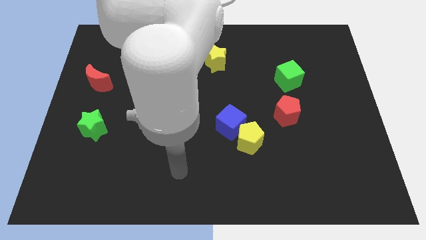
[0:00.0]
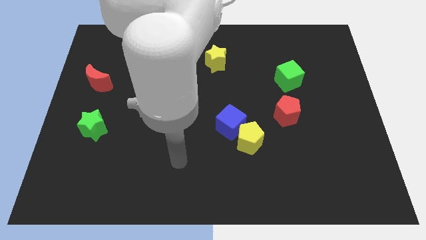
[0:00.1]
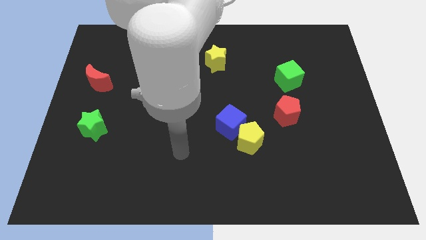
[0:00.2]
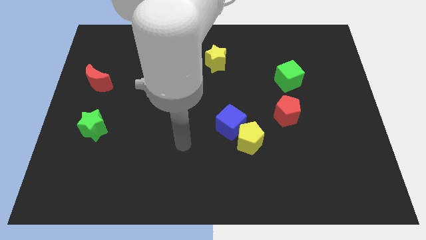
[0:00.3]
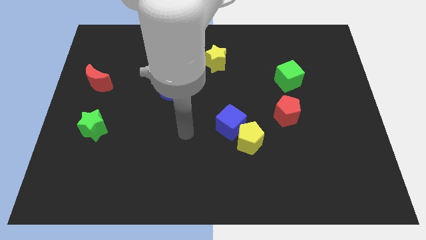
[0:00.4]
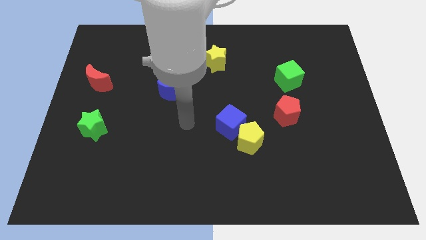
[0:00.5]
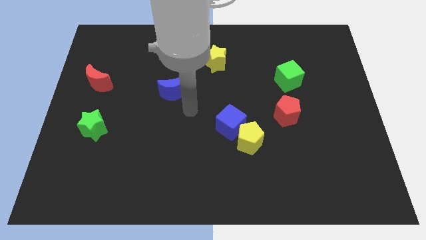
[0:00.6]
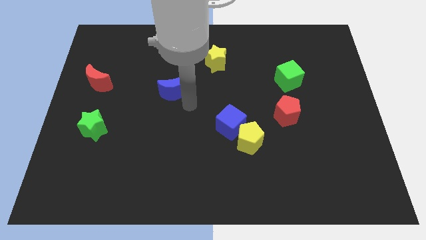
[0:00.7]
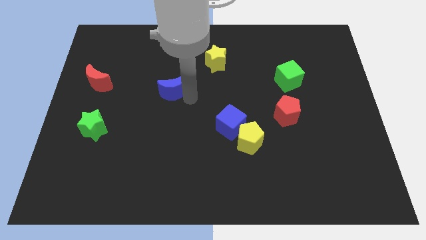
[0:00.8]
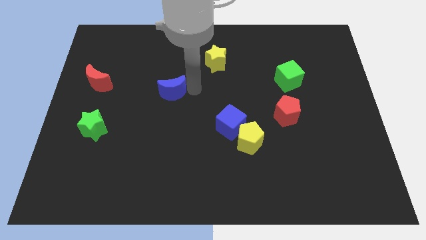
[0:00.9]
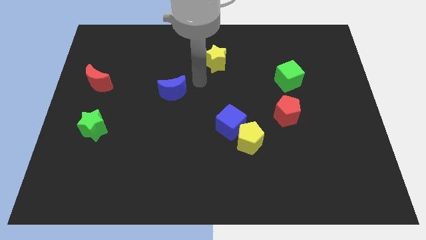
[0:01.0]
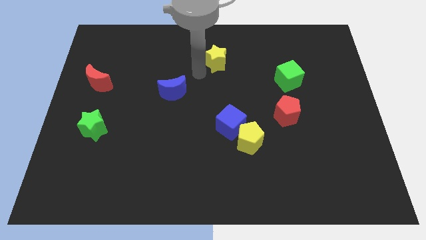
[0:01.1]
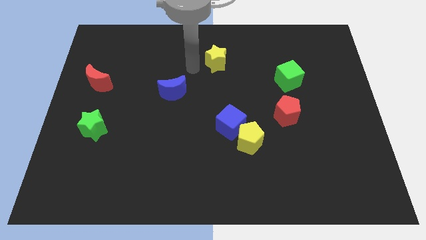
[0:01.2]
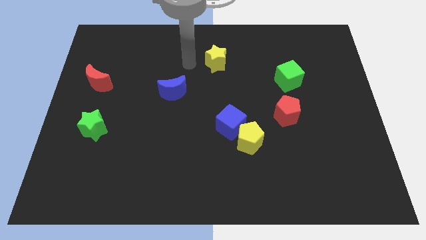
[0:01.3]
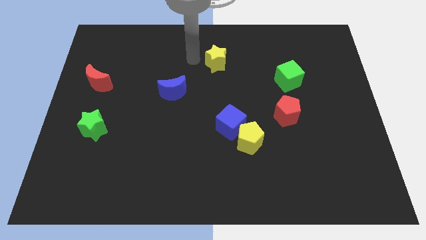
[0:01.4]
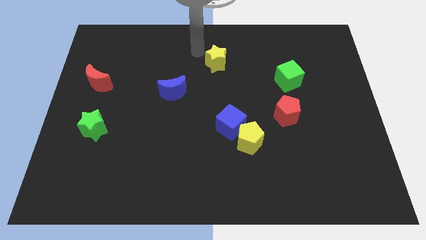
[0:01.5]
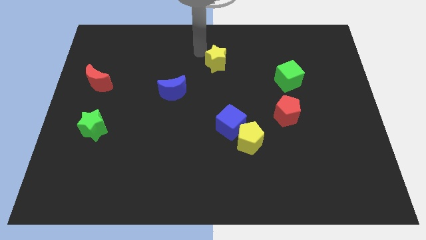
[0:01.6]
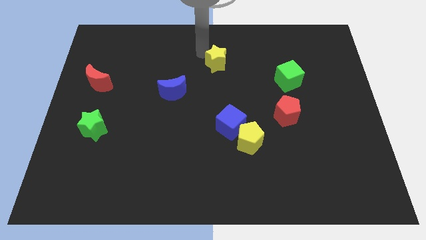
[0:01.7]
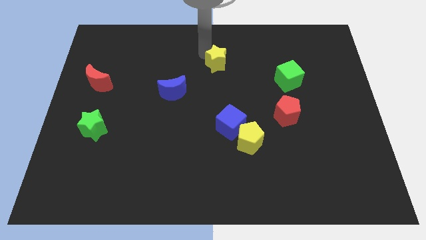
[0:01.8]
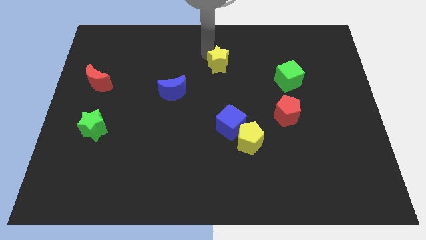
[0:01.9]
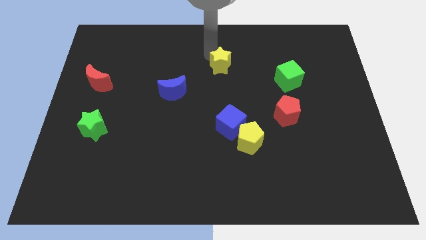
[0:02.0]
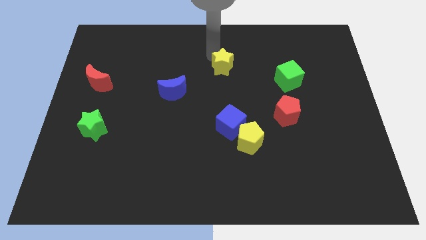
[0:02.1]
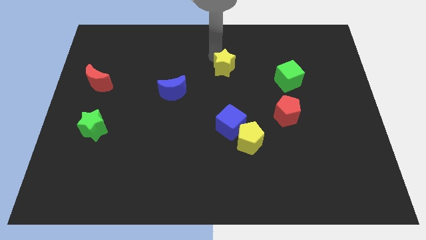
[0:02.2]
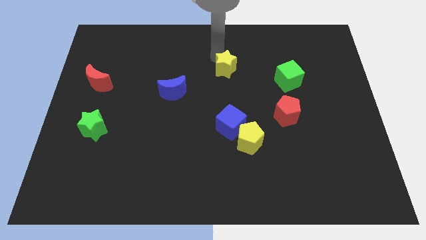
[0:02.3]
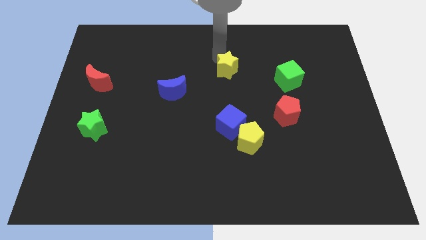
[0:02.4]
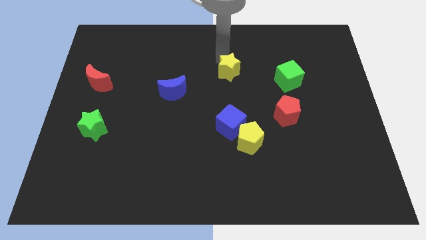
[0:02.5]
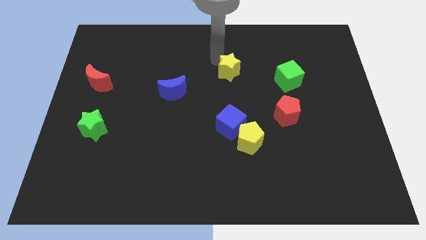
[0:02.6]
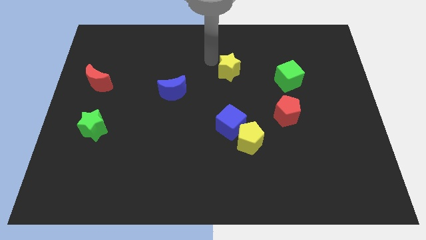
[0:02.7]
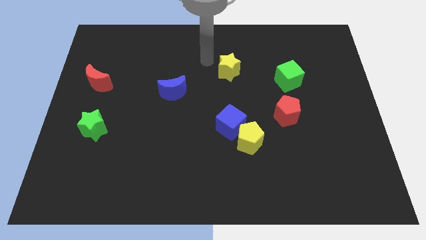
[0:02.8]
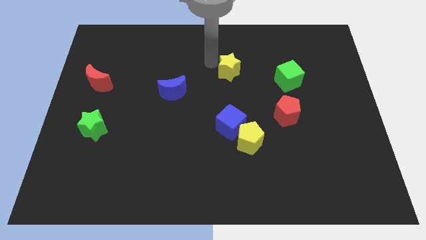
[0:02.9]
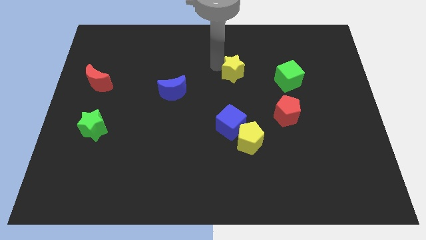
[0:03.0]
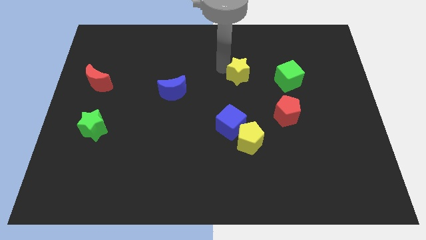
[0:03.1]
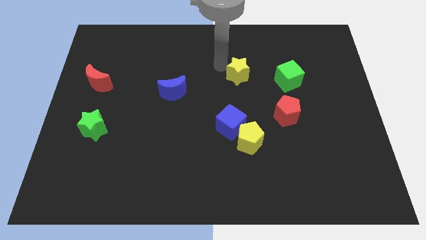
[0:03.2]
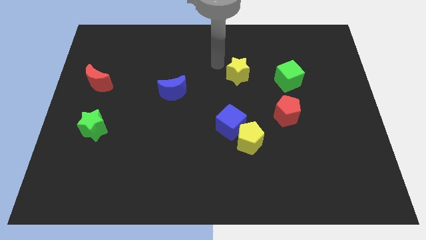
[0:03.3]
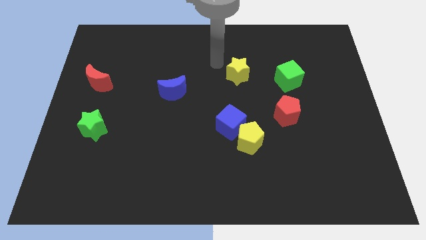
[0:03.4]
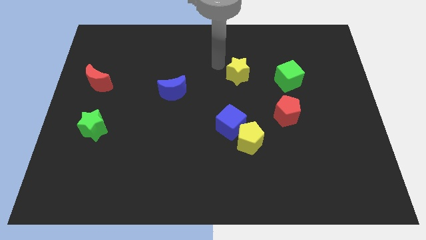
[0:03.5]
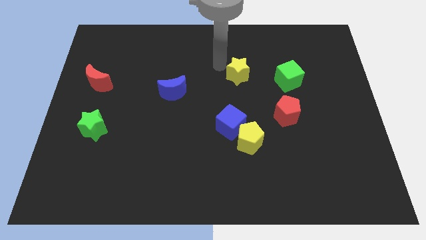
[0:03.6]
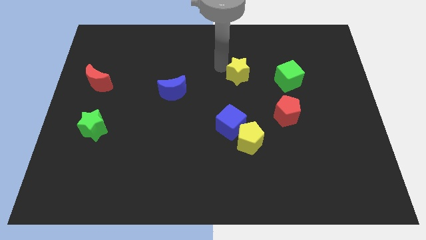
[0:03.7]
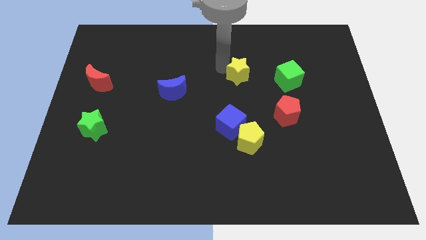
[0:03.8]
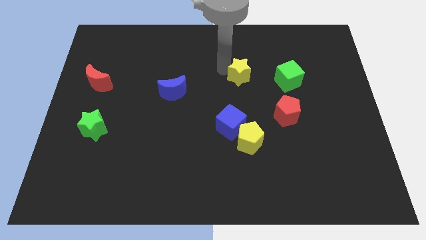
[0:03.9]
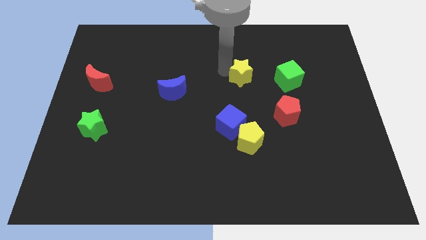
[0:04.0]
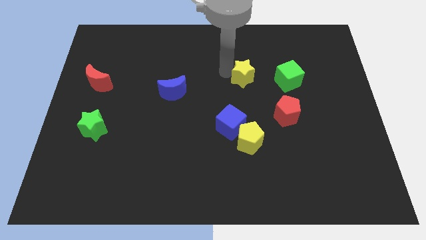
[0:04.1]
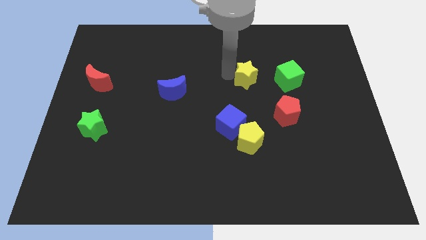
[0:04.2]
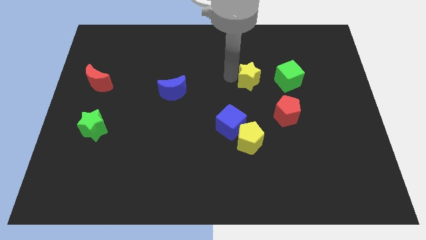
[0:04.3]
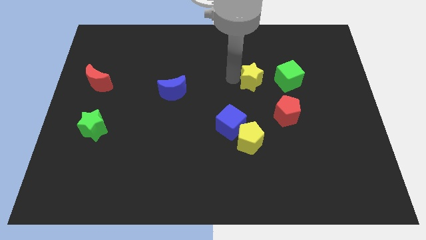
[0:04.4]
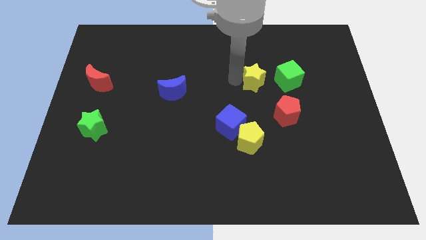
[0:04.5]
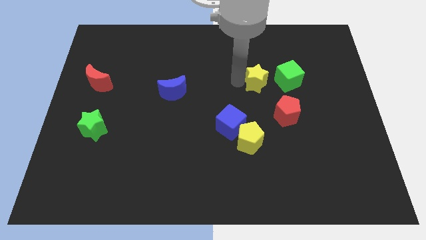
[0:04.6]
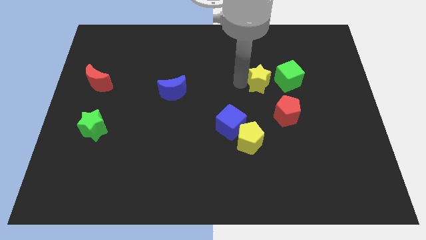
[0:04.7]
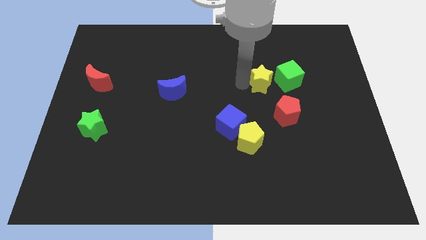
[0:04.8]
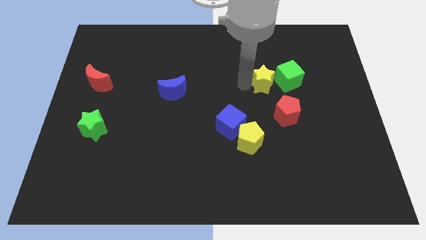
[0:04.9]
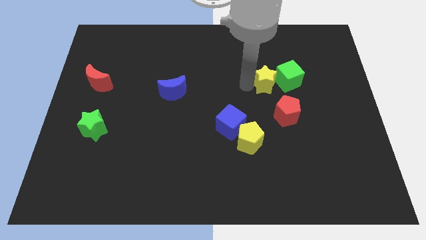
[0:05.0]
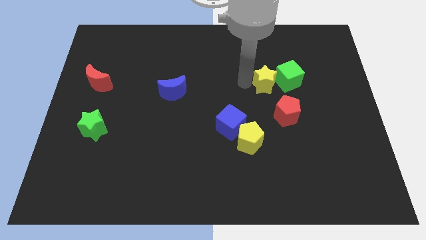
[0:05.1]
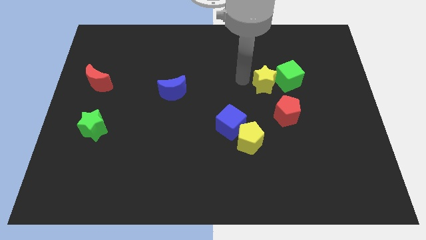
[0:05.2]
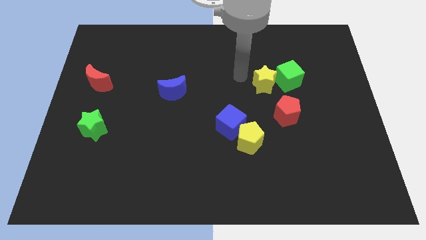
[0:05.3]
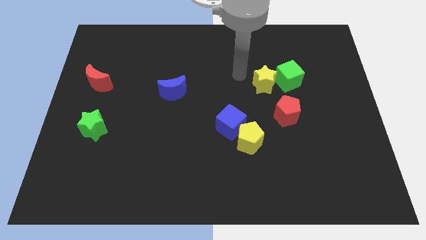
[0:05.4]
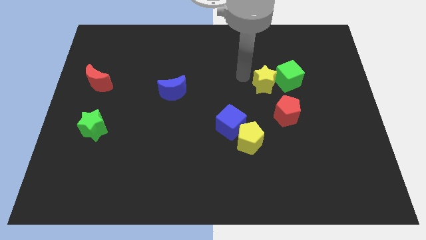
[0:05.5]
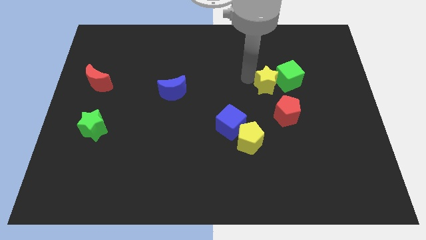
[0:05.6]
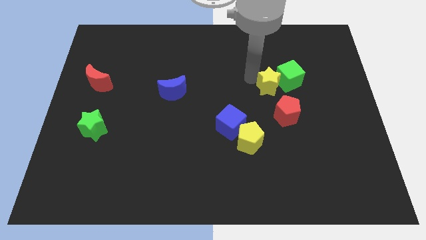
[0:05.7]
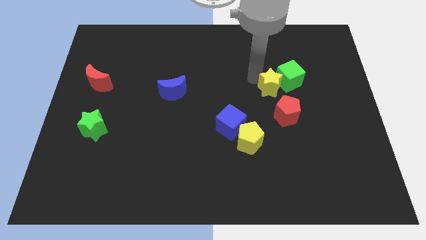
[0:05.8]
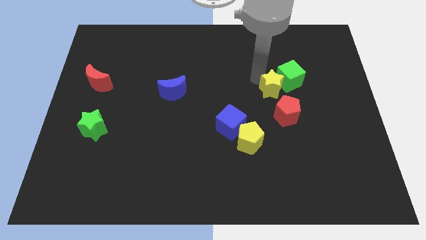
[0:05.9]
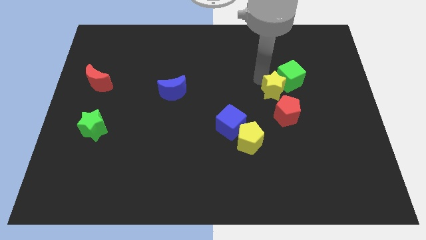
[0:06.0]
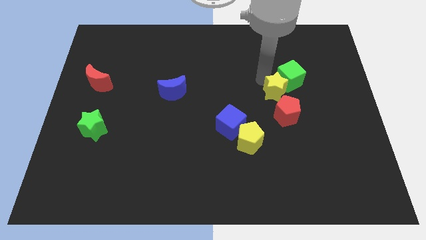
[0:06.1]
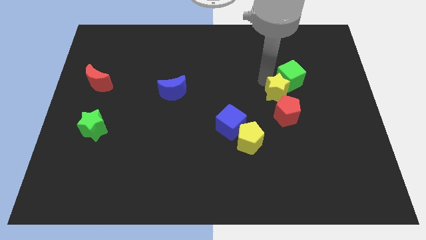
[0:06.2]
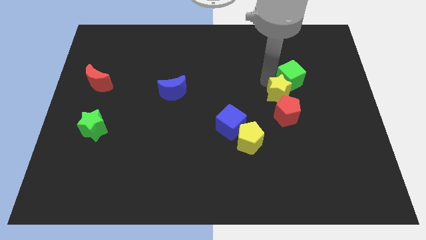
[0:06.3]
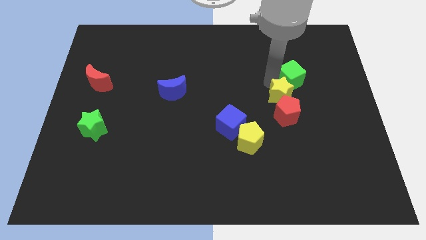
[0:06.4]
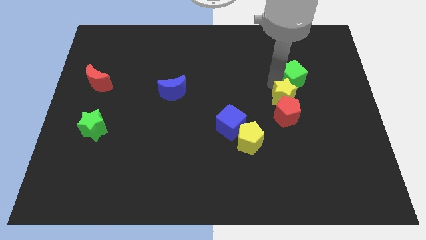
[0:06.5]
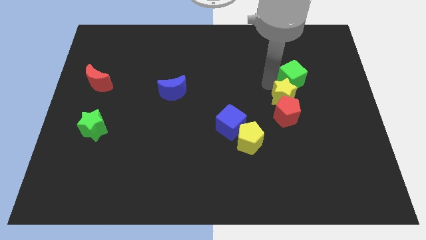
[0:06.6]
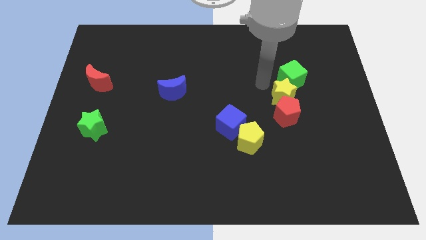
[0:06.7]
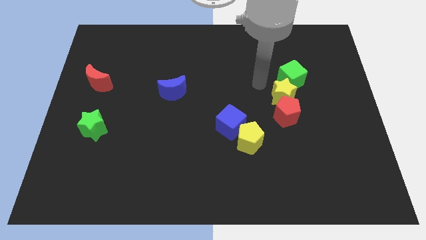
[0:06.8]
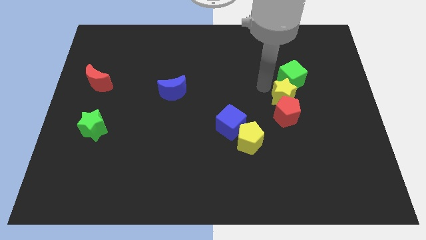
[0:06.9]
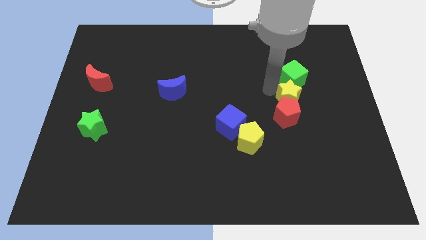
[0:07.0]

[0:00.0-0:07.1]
slide the yellow star downwards and then to the right

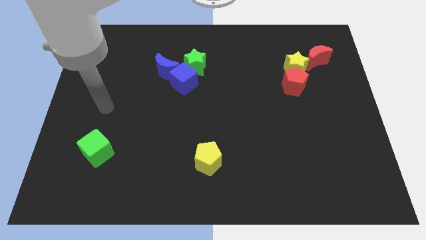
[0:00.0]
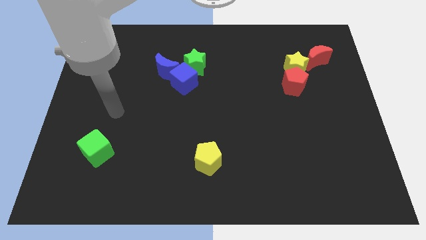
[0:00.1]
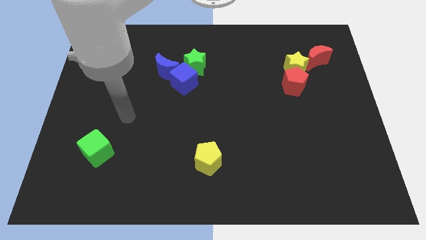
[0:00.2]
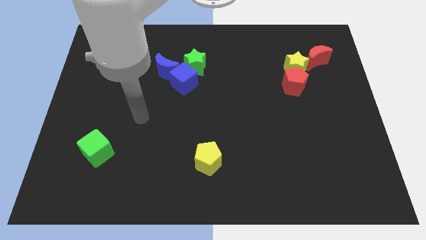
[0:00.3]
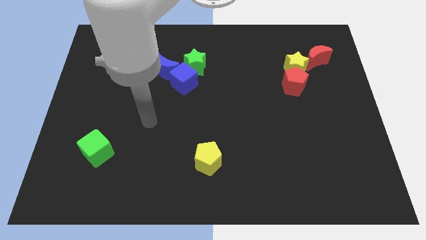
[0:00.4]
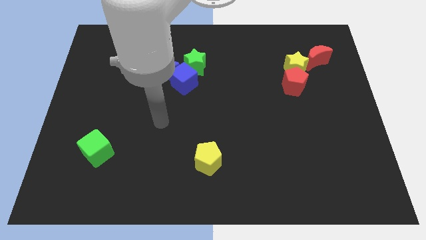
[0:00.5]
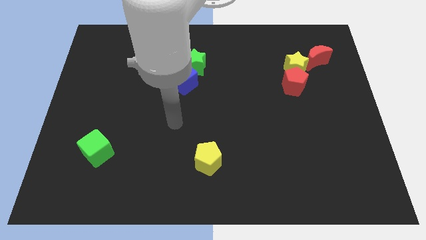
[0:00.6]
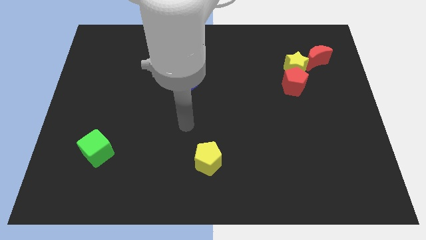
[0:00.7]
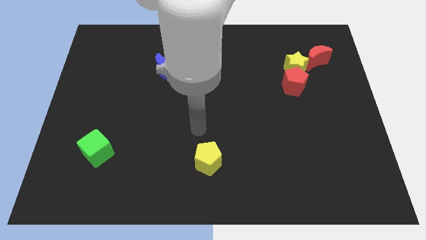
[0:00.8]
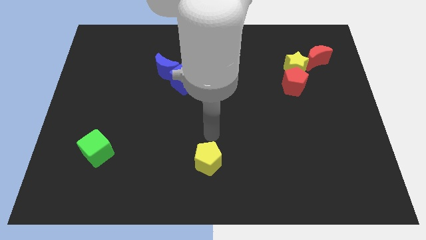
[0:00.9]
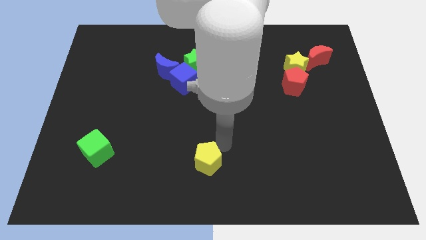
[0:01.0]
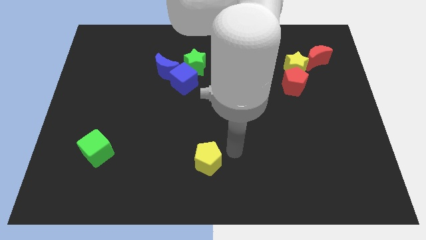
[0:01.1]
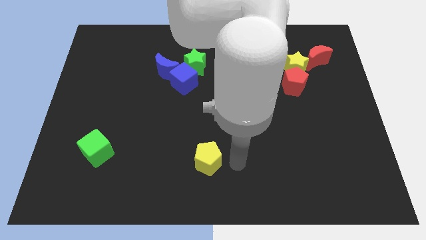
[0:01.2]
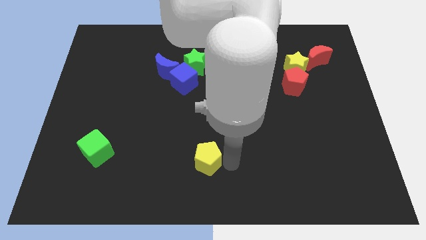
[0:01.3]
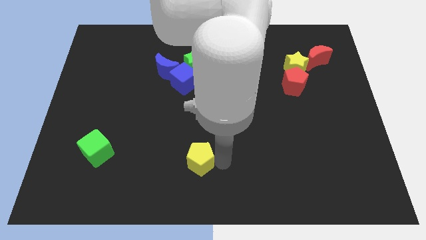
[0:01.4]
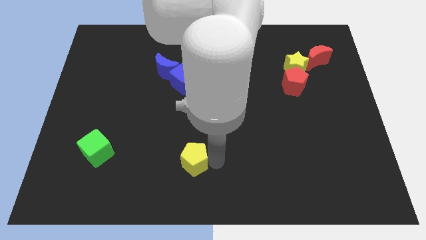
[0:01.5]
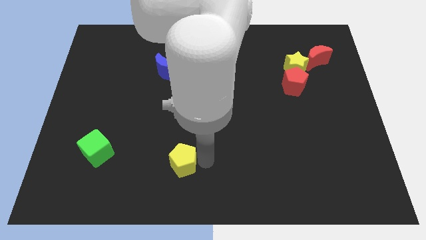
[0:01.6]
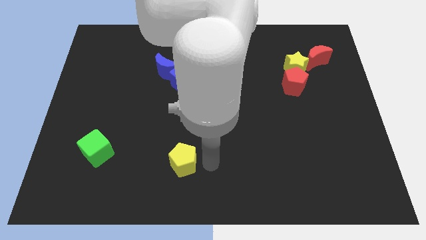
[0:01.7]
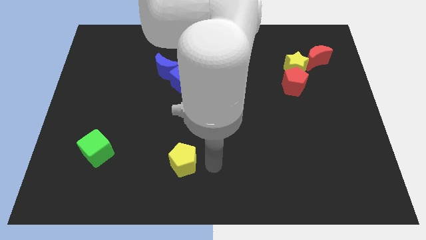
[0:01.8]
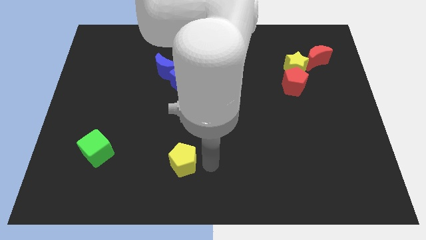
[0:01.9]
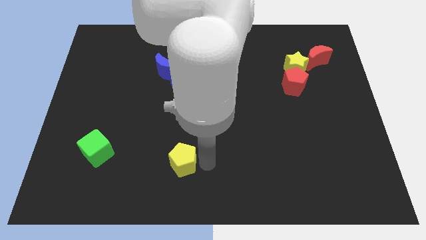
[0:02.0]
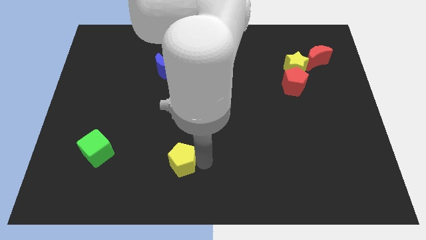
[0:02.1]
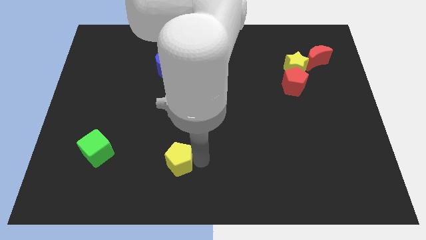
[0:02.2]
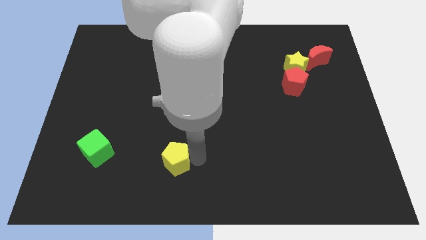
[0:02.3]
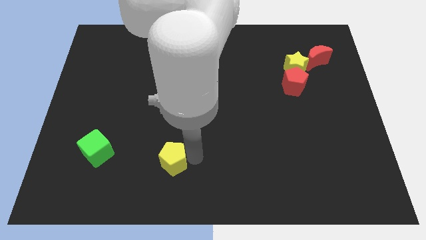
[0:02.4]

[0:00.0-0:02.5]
push the yellow pentagon left a little
